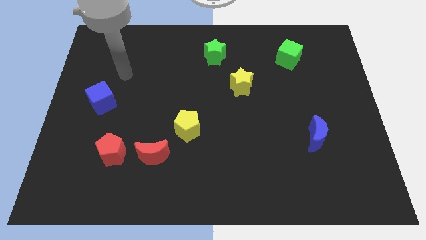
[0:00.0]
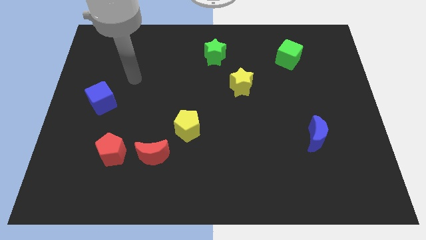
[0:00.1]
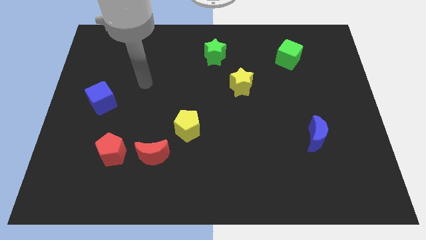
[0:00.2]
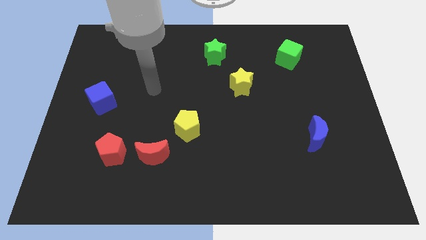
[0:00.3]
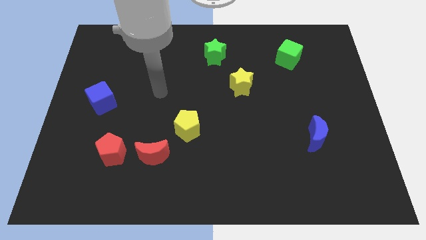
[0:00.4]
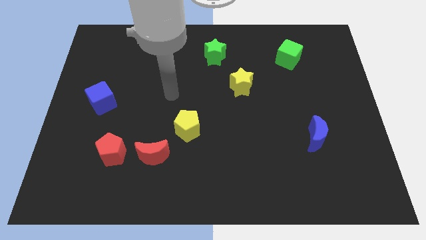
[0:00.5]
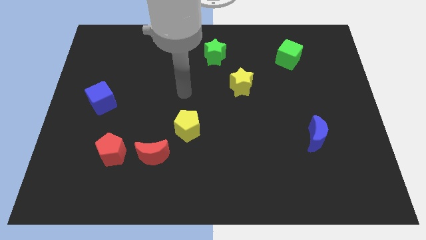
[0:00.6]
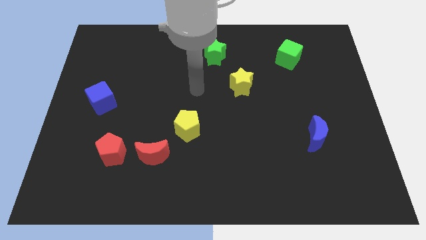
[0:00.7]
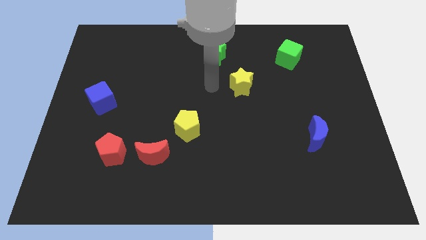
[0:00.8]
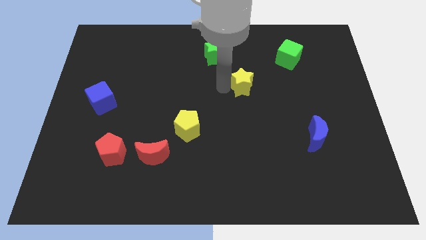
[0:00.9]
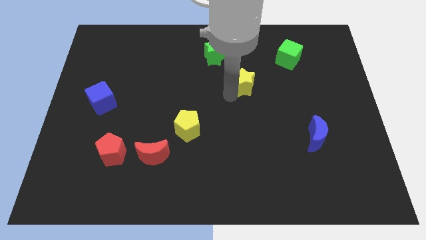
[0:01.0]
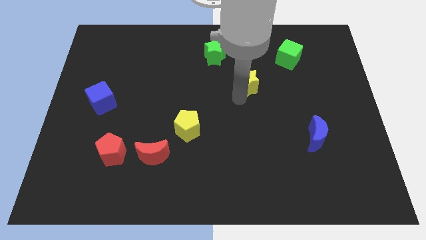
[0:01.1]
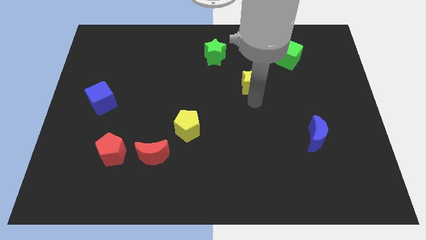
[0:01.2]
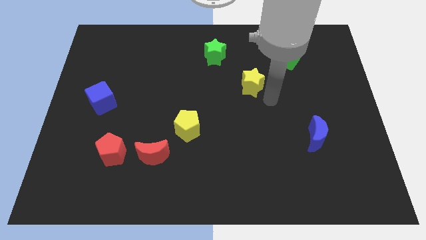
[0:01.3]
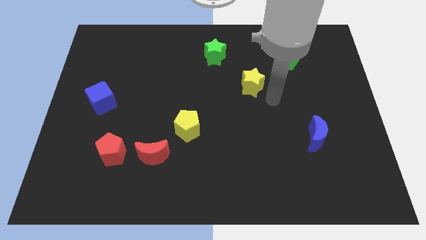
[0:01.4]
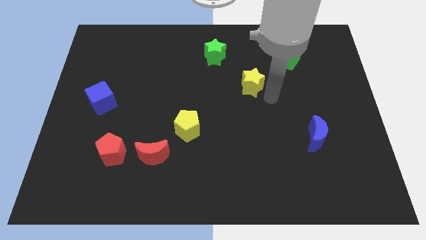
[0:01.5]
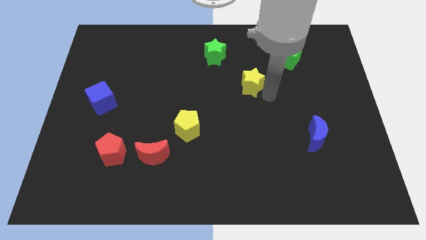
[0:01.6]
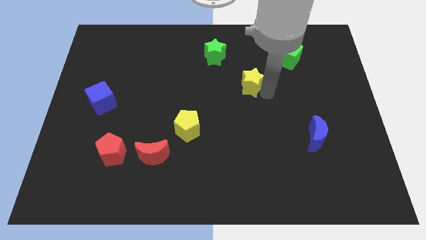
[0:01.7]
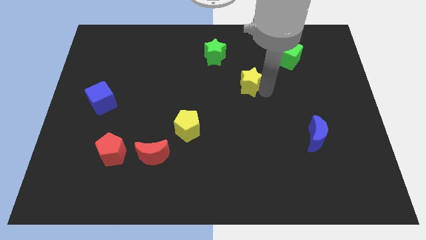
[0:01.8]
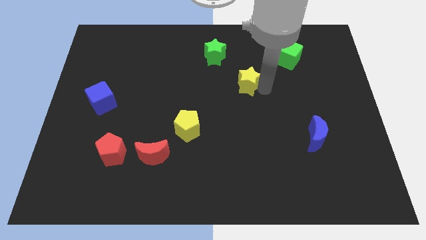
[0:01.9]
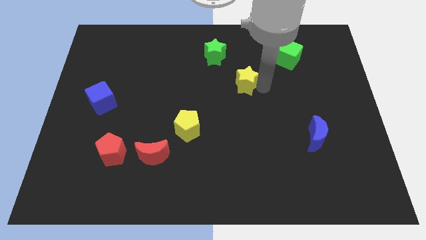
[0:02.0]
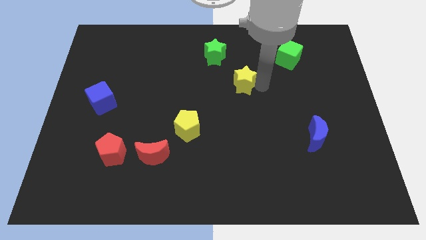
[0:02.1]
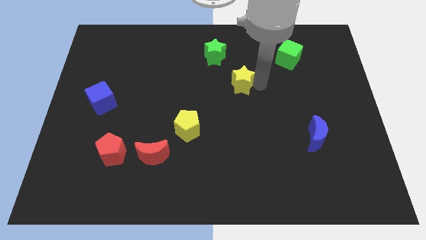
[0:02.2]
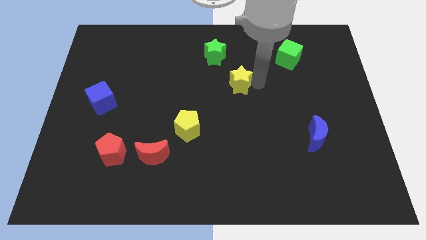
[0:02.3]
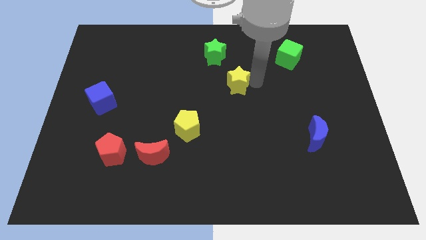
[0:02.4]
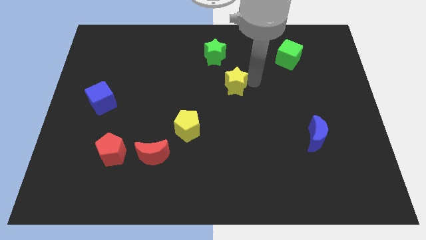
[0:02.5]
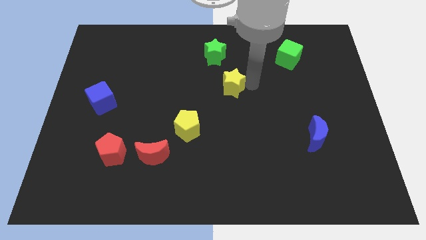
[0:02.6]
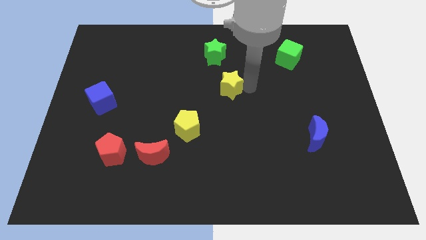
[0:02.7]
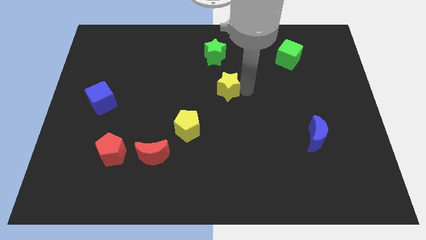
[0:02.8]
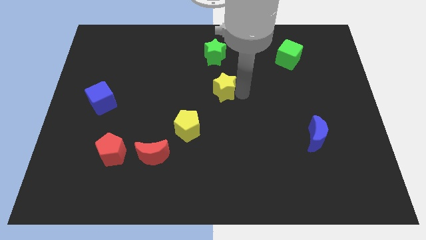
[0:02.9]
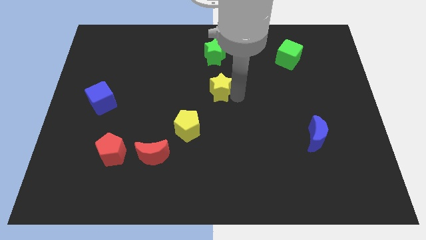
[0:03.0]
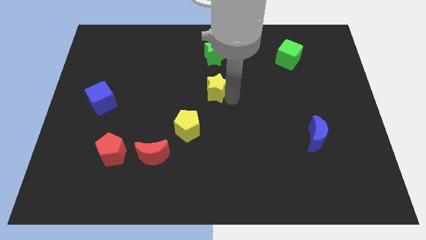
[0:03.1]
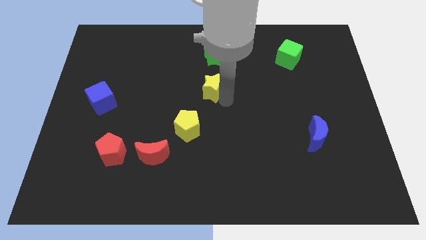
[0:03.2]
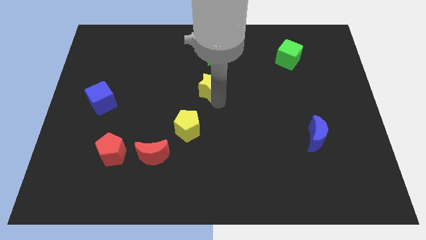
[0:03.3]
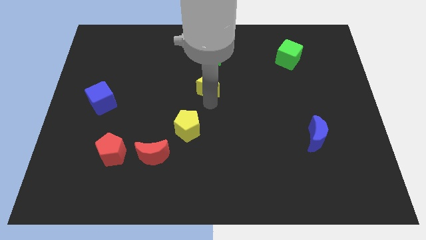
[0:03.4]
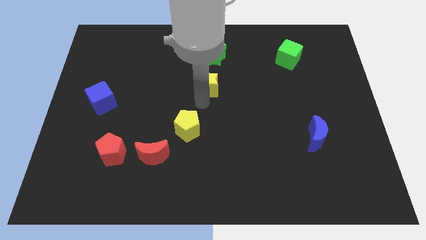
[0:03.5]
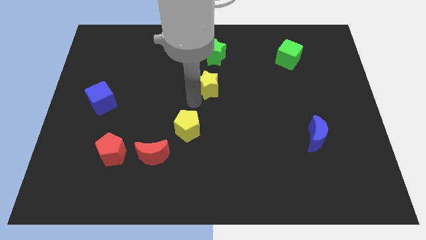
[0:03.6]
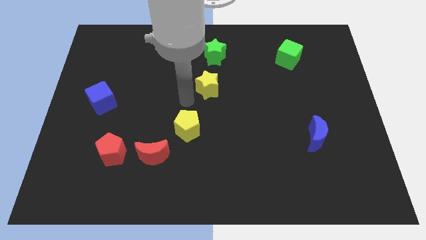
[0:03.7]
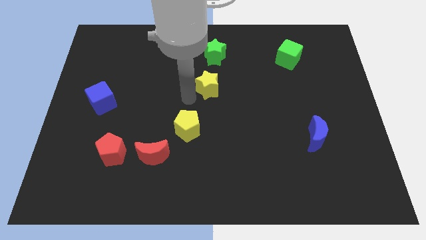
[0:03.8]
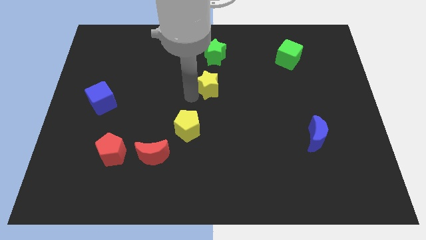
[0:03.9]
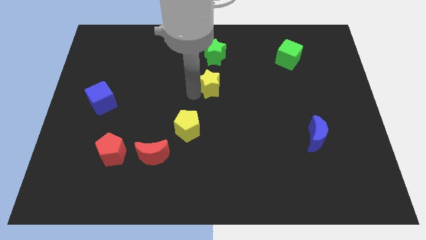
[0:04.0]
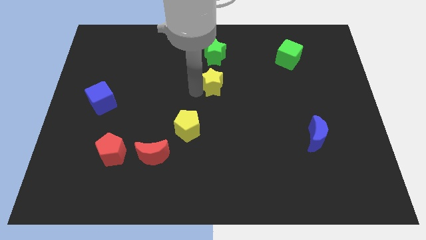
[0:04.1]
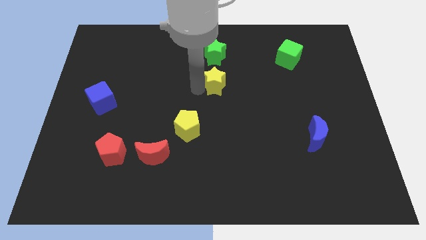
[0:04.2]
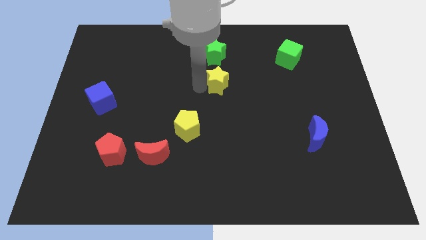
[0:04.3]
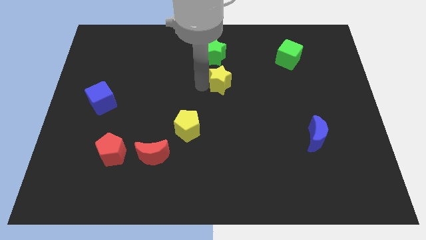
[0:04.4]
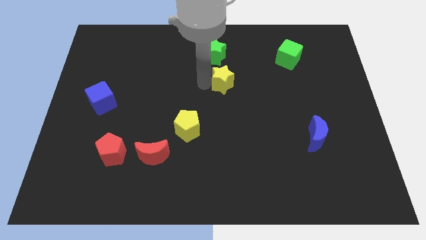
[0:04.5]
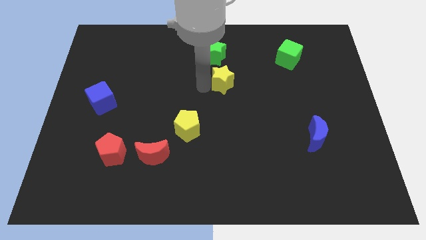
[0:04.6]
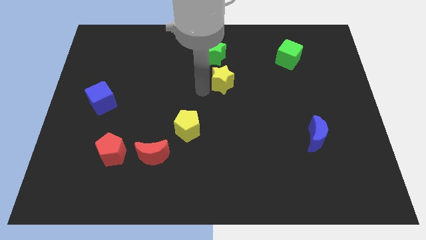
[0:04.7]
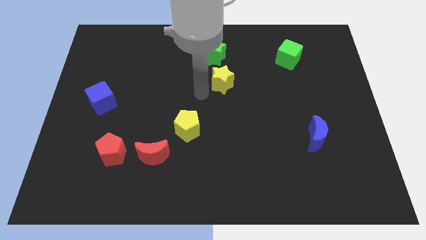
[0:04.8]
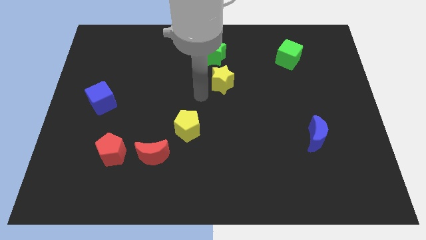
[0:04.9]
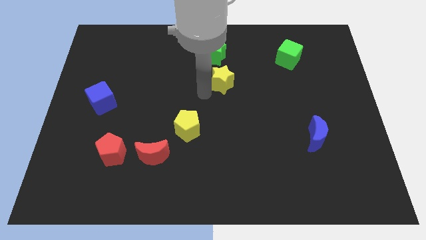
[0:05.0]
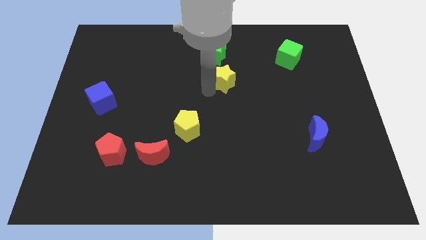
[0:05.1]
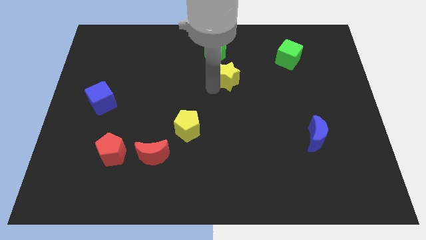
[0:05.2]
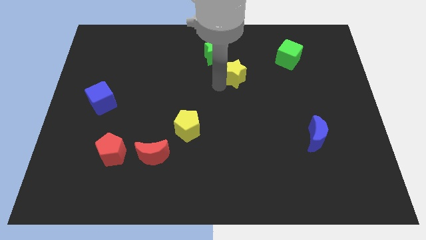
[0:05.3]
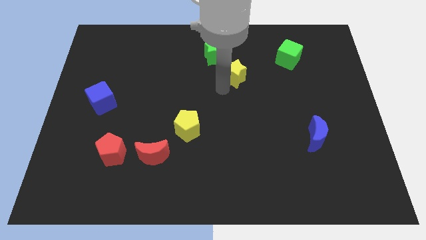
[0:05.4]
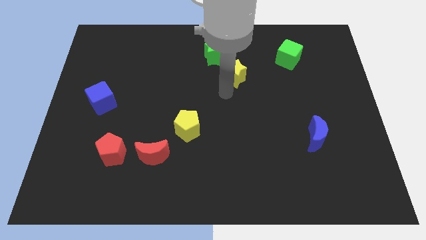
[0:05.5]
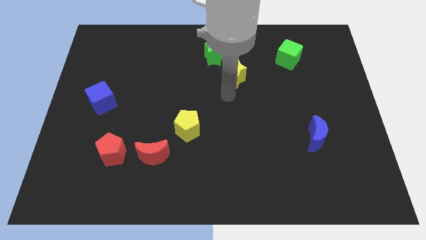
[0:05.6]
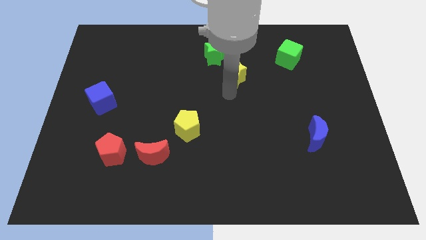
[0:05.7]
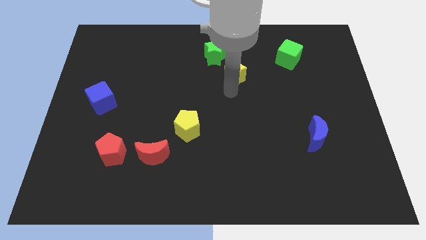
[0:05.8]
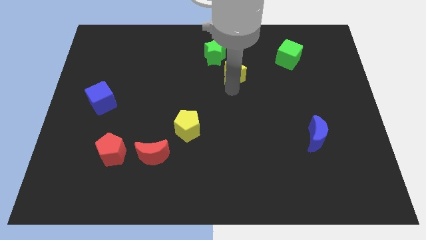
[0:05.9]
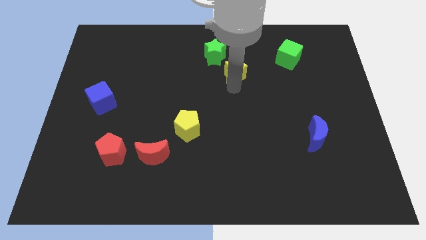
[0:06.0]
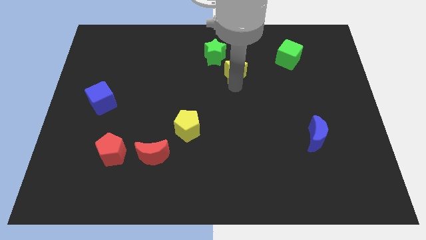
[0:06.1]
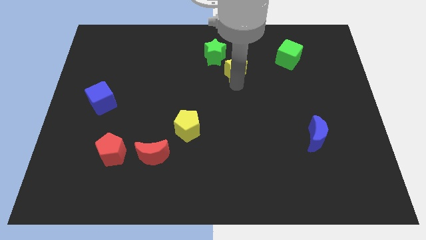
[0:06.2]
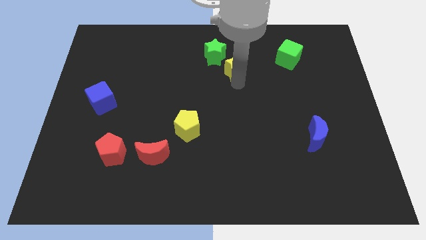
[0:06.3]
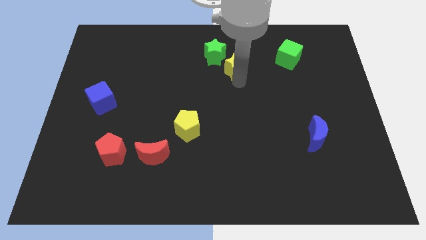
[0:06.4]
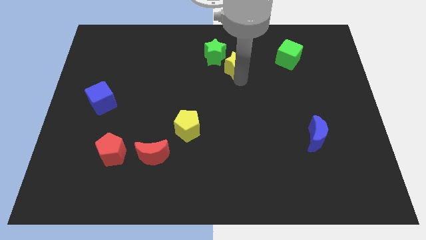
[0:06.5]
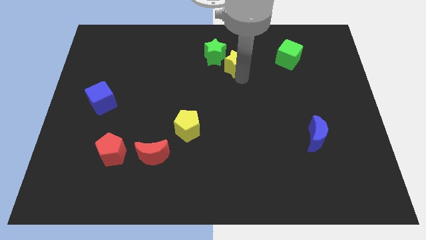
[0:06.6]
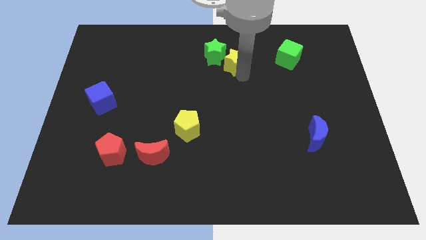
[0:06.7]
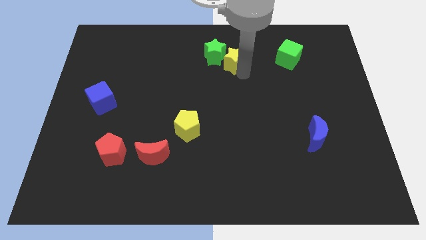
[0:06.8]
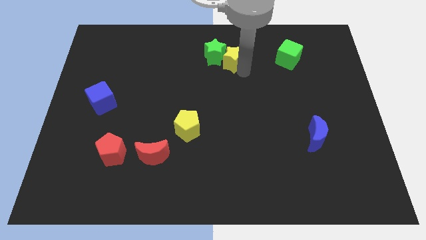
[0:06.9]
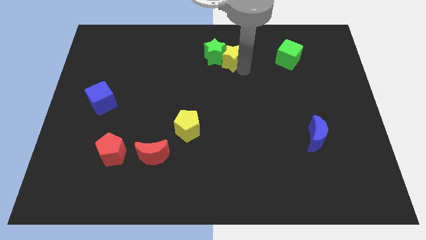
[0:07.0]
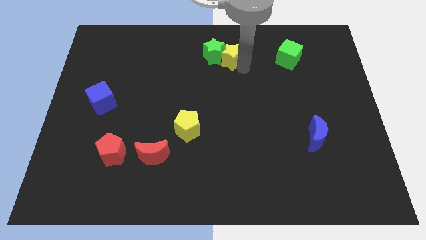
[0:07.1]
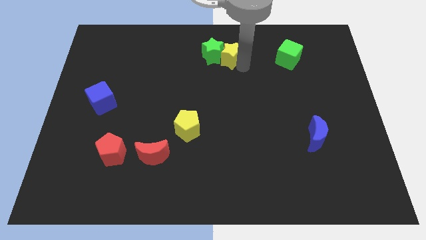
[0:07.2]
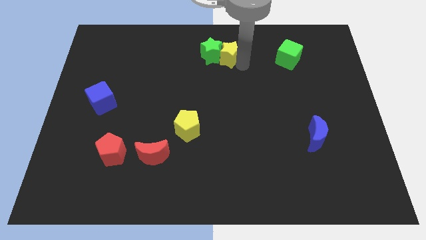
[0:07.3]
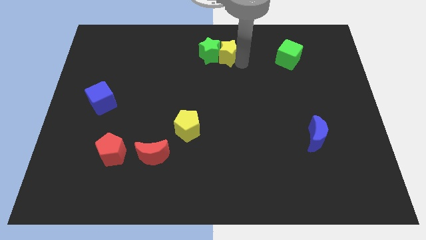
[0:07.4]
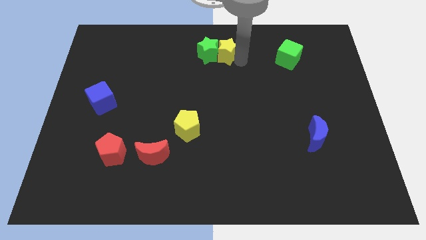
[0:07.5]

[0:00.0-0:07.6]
move the yellow star to the top
